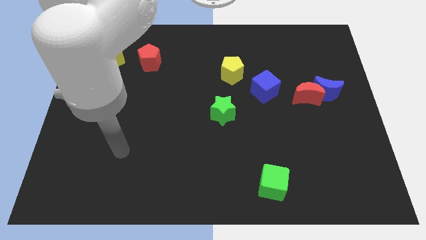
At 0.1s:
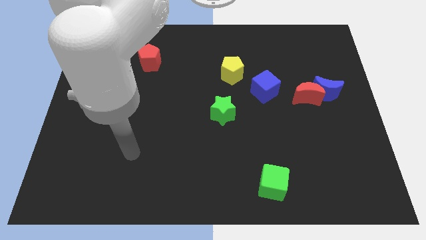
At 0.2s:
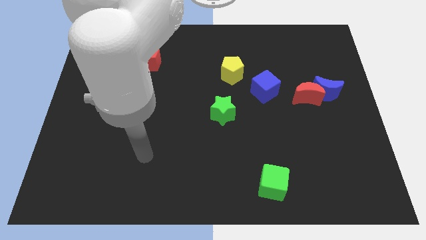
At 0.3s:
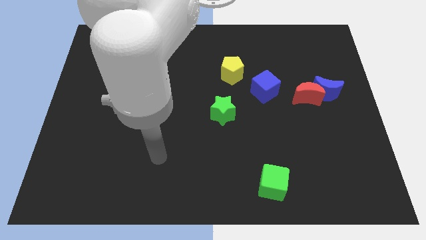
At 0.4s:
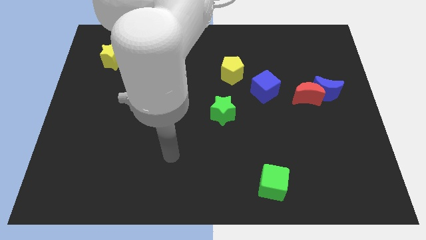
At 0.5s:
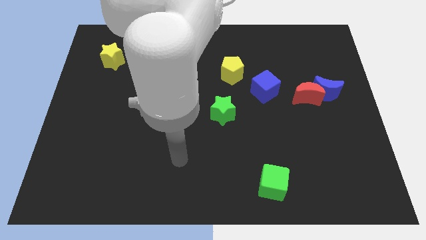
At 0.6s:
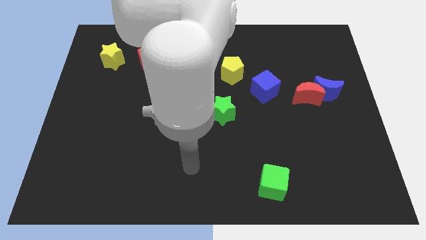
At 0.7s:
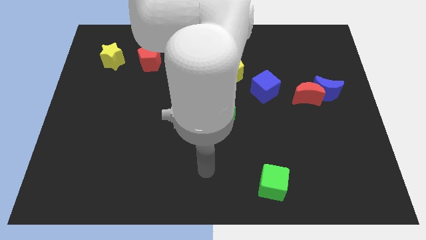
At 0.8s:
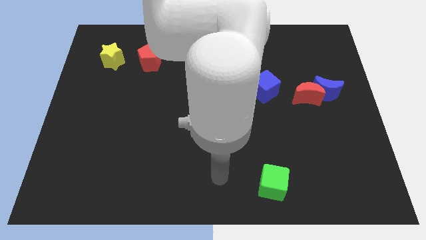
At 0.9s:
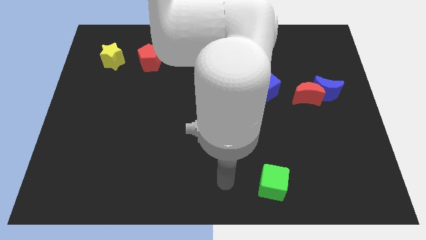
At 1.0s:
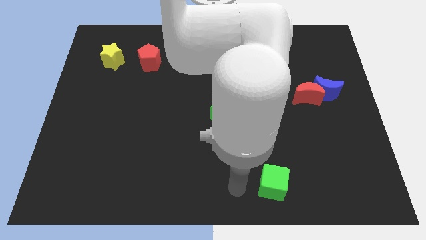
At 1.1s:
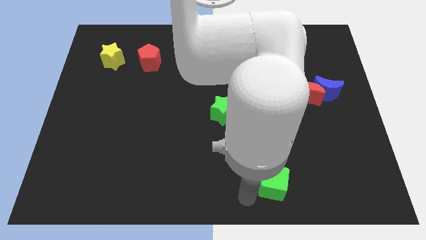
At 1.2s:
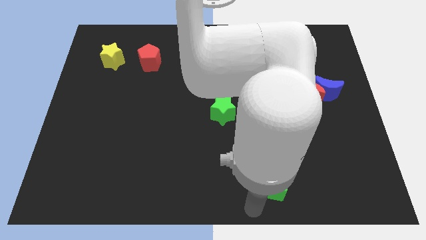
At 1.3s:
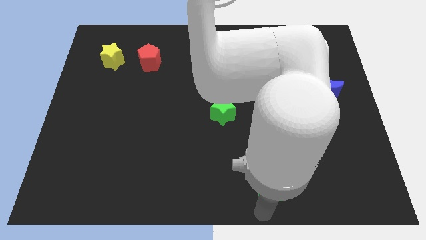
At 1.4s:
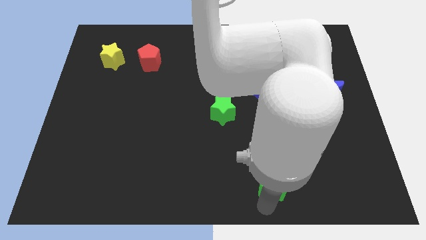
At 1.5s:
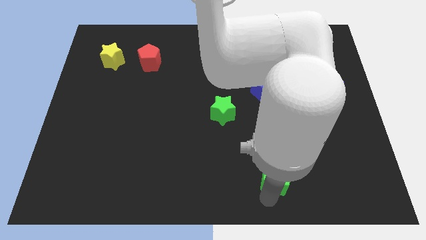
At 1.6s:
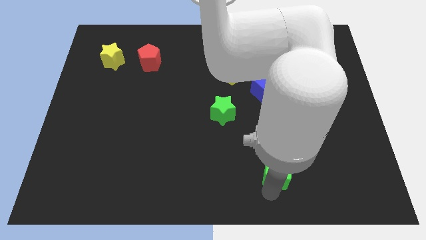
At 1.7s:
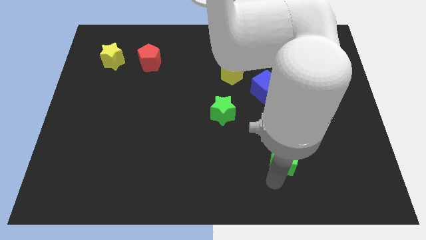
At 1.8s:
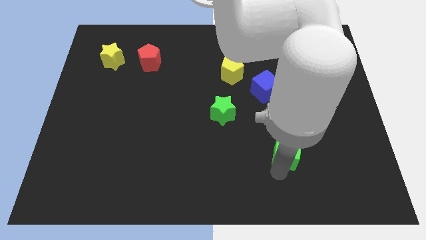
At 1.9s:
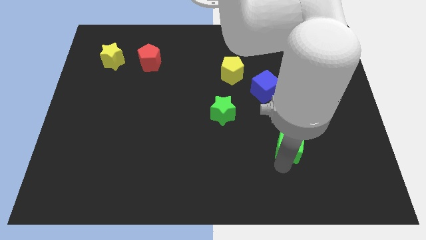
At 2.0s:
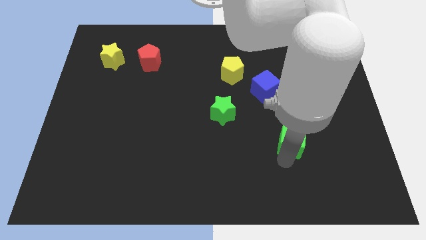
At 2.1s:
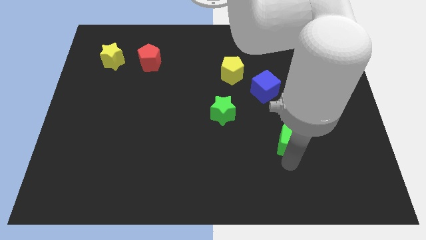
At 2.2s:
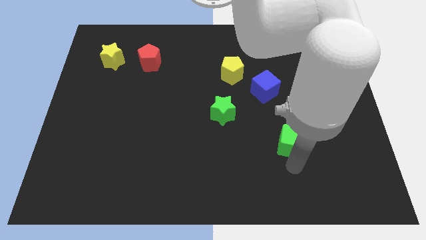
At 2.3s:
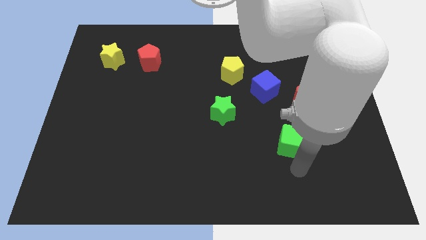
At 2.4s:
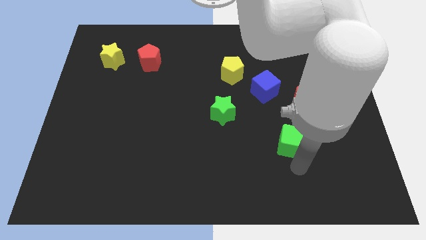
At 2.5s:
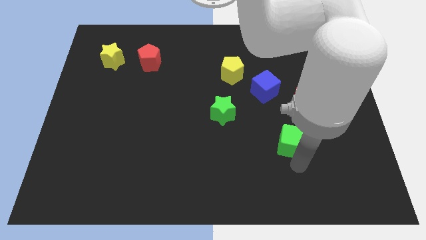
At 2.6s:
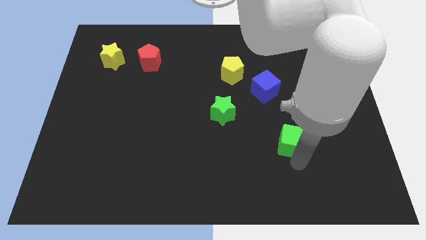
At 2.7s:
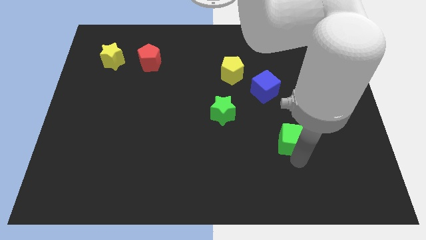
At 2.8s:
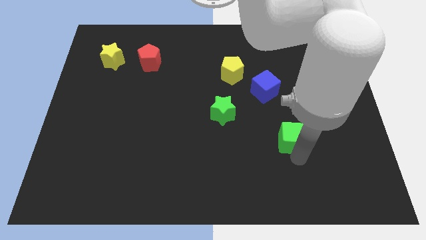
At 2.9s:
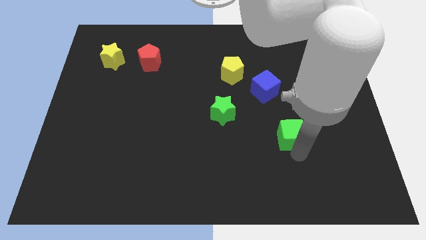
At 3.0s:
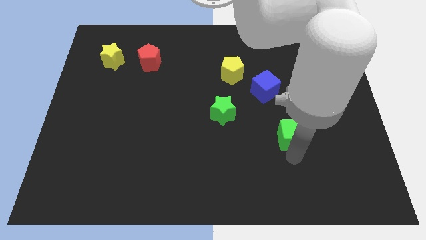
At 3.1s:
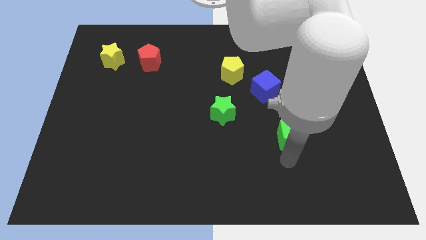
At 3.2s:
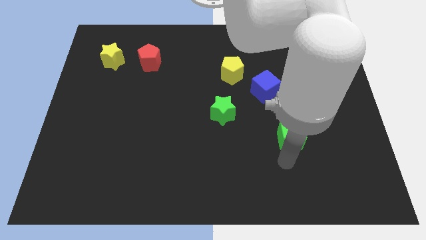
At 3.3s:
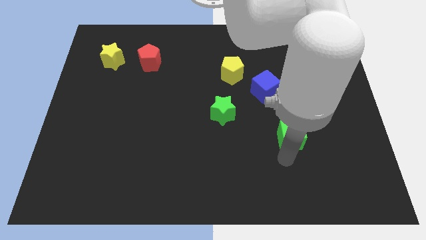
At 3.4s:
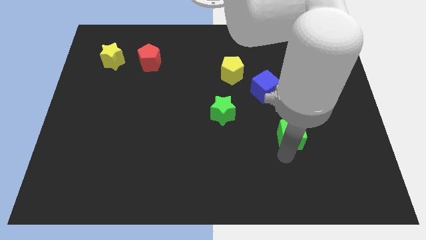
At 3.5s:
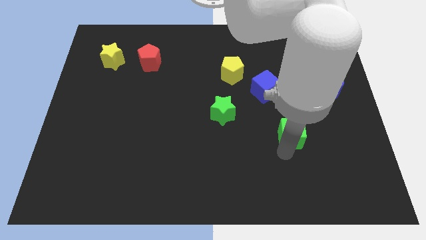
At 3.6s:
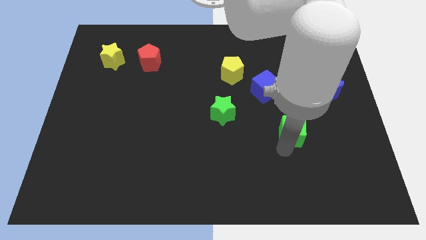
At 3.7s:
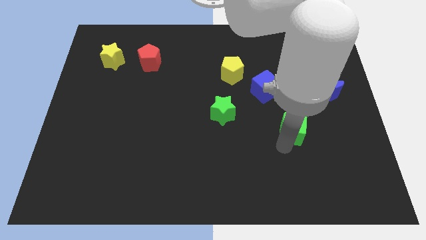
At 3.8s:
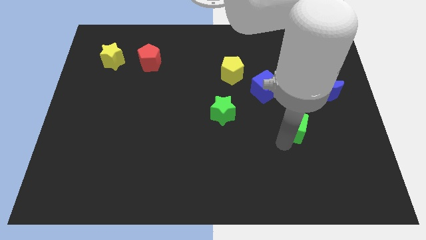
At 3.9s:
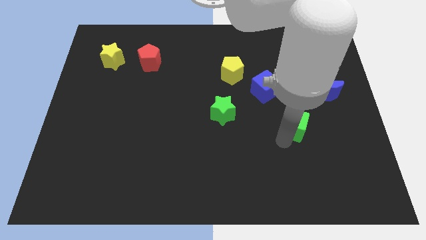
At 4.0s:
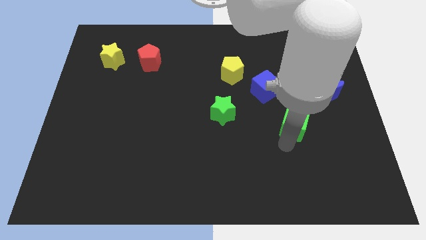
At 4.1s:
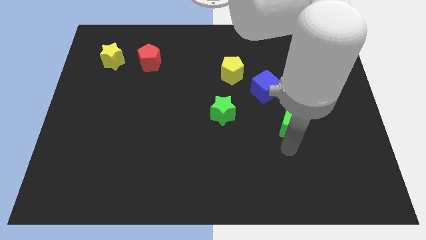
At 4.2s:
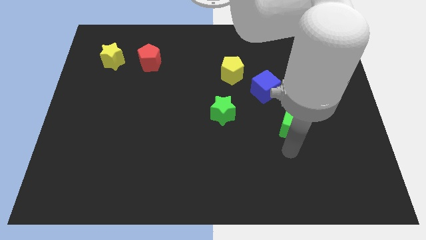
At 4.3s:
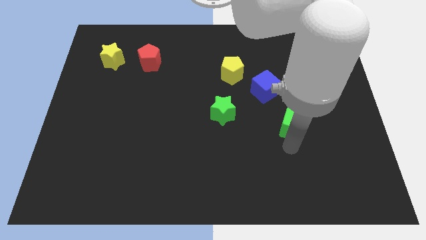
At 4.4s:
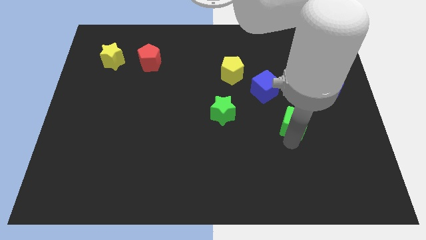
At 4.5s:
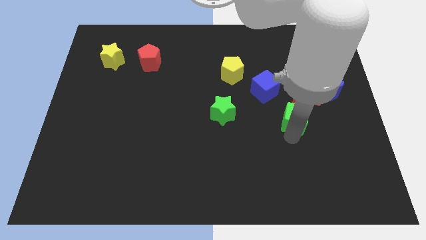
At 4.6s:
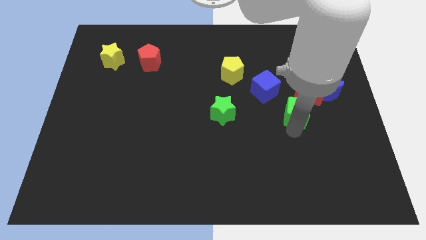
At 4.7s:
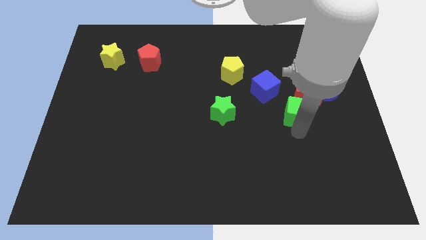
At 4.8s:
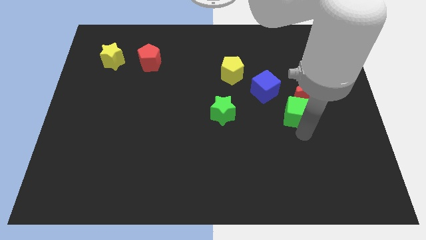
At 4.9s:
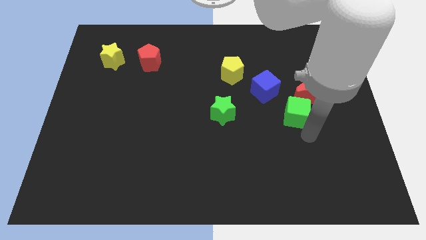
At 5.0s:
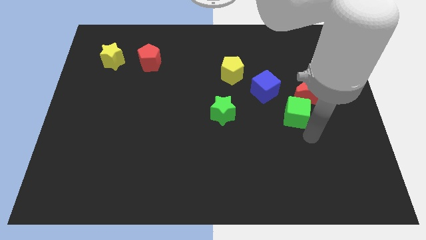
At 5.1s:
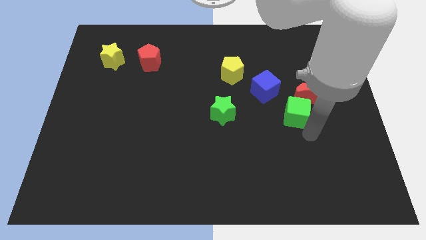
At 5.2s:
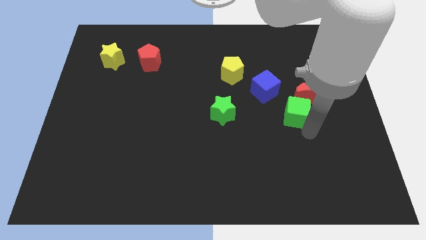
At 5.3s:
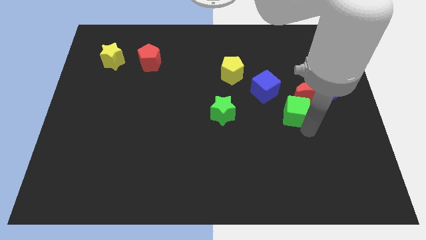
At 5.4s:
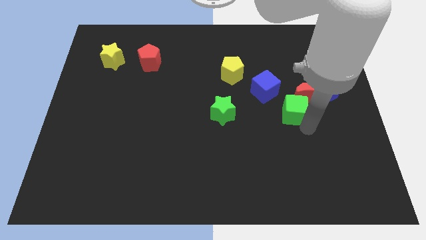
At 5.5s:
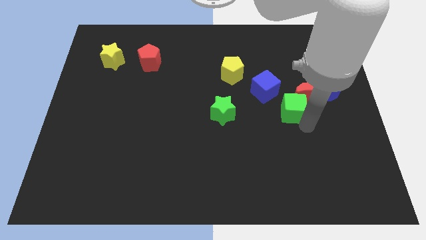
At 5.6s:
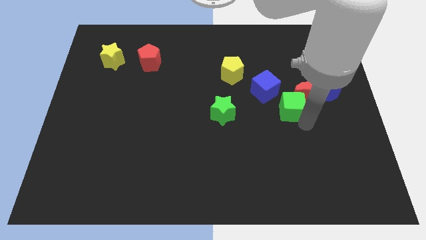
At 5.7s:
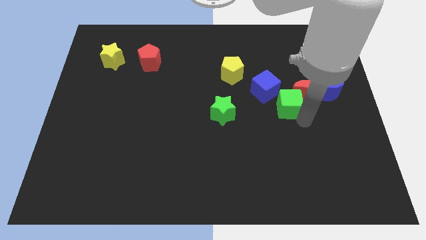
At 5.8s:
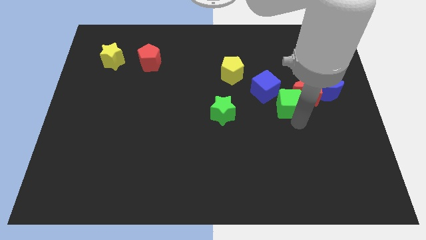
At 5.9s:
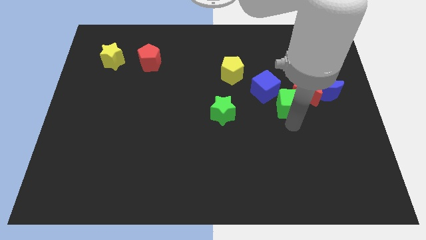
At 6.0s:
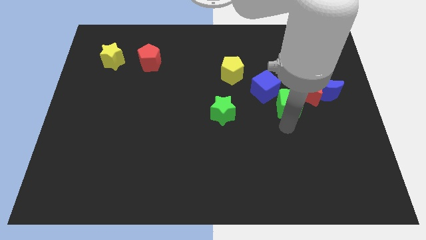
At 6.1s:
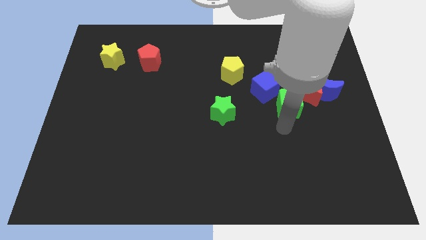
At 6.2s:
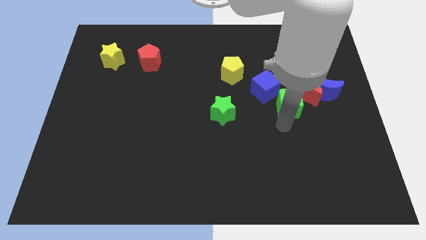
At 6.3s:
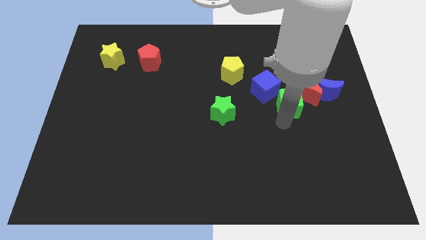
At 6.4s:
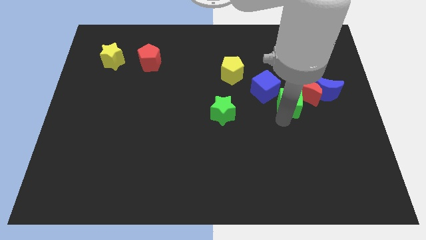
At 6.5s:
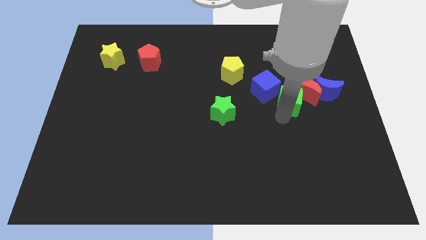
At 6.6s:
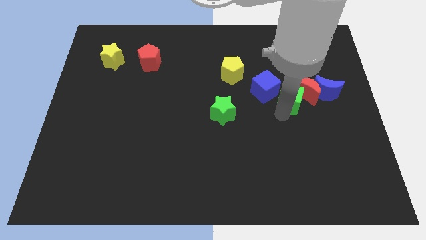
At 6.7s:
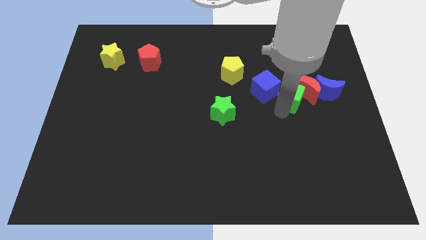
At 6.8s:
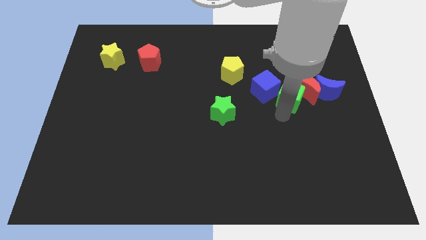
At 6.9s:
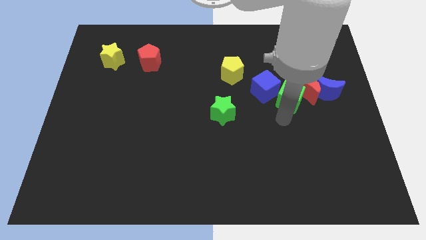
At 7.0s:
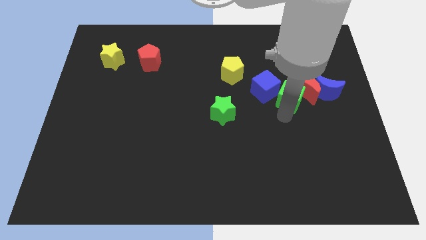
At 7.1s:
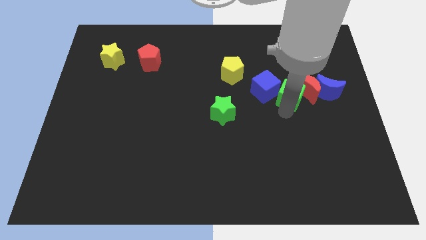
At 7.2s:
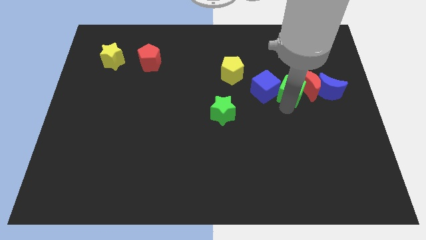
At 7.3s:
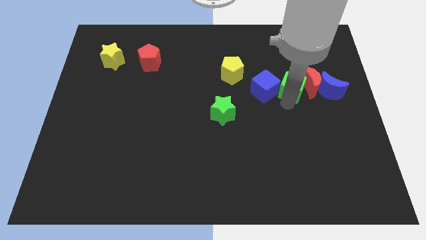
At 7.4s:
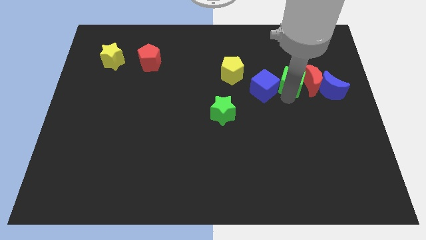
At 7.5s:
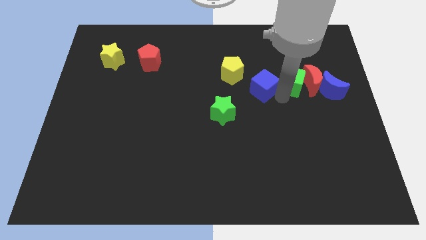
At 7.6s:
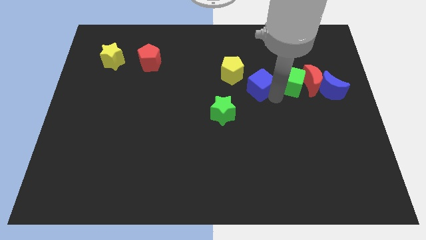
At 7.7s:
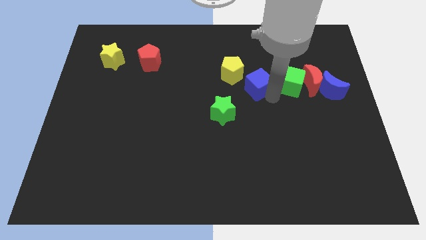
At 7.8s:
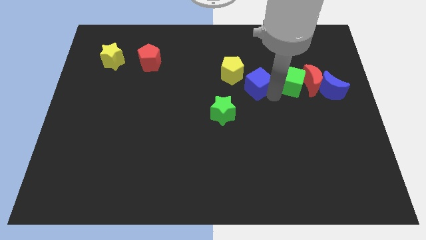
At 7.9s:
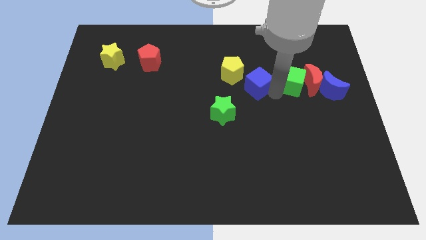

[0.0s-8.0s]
push the green cube to the top left side of the blue moon
